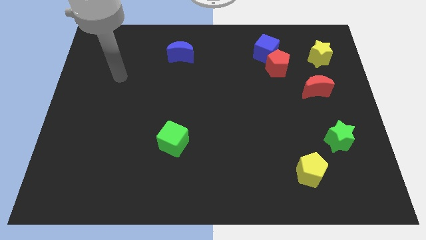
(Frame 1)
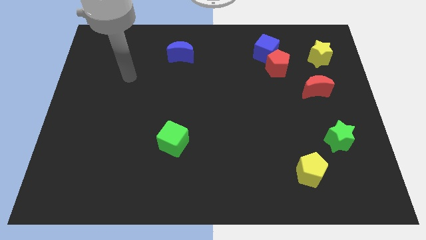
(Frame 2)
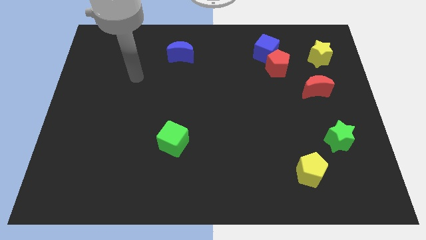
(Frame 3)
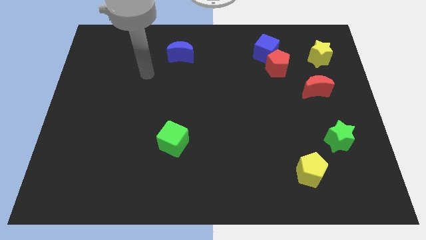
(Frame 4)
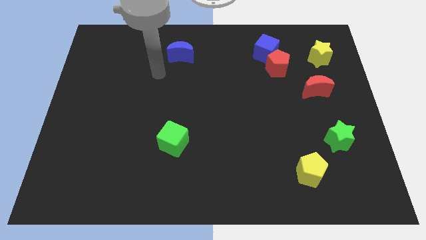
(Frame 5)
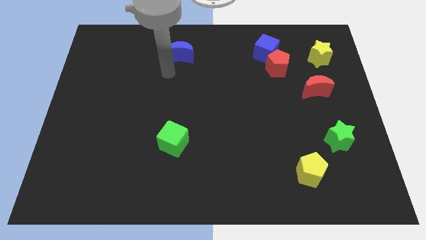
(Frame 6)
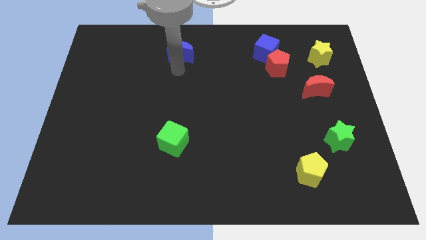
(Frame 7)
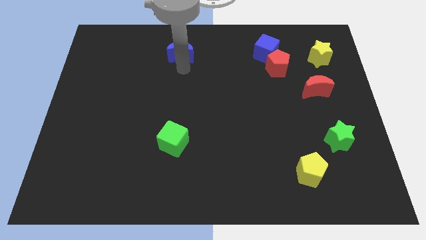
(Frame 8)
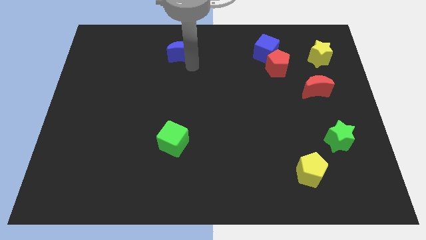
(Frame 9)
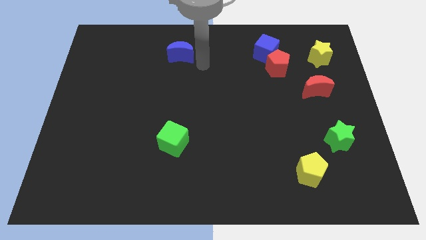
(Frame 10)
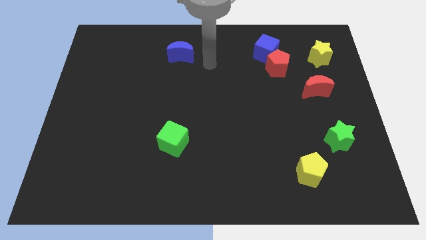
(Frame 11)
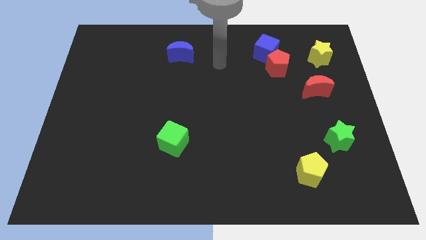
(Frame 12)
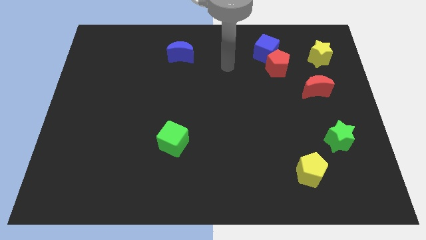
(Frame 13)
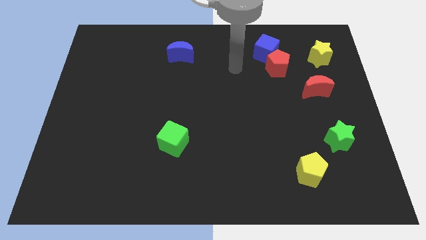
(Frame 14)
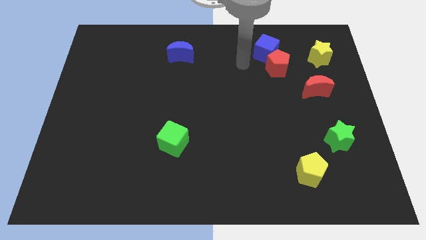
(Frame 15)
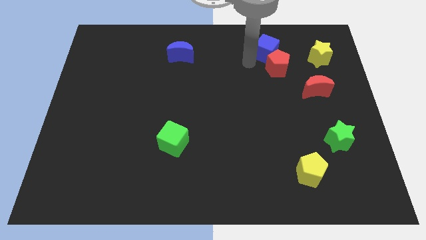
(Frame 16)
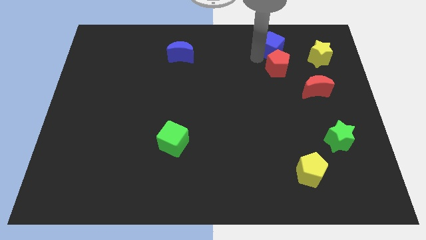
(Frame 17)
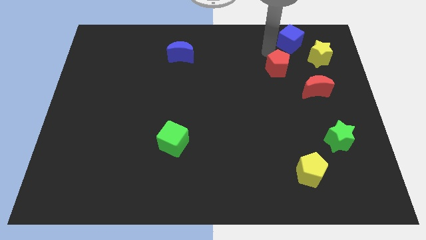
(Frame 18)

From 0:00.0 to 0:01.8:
separate the red pentagon from the blue cube

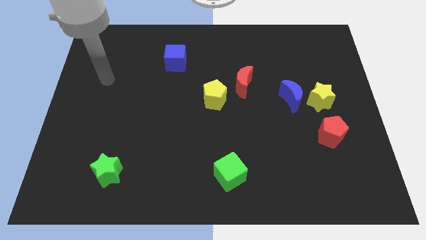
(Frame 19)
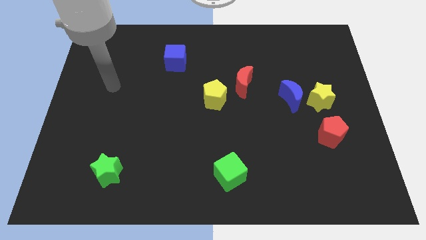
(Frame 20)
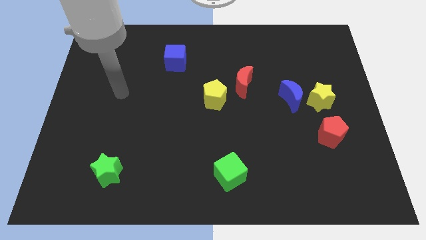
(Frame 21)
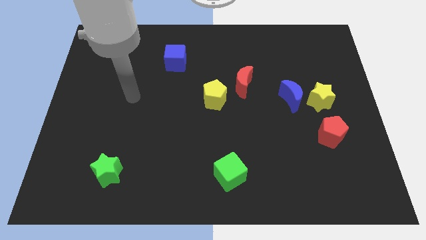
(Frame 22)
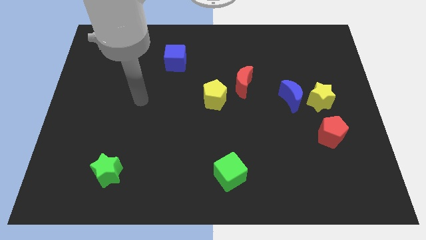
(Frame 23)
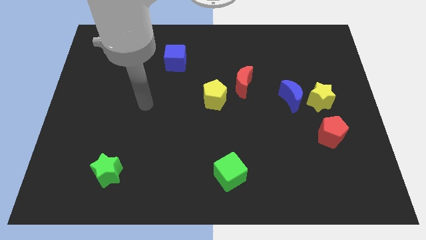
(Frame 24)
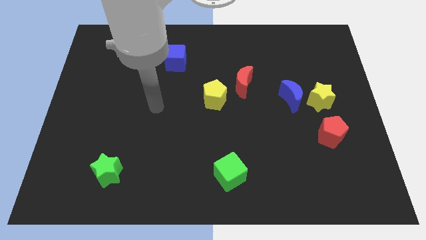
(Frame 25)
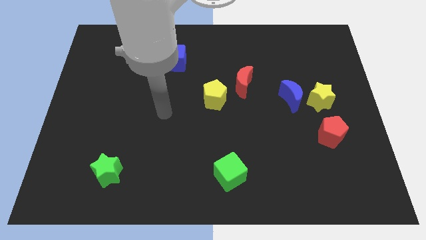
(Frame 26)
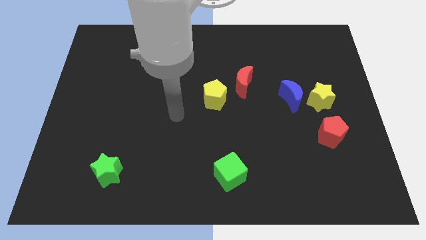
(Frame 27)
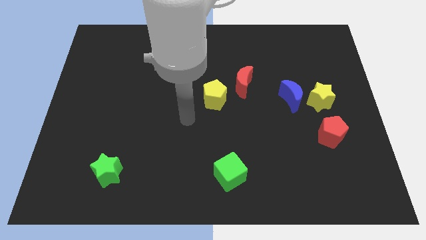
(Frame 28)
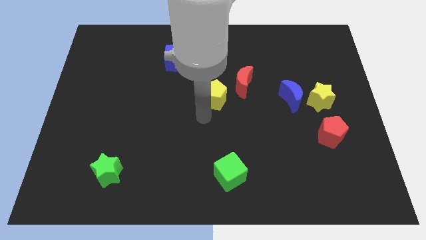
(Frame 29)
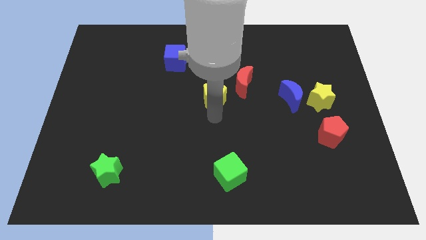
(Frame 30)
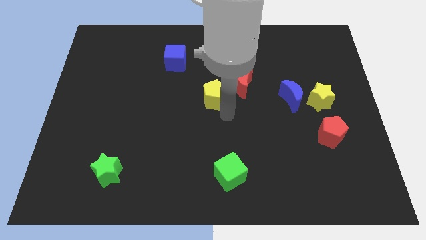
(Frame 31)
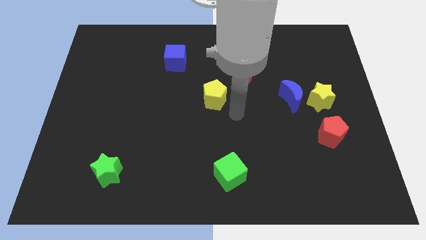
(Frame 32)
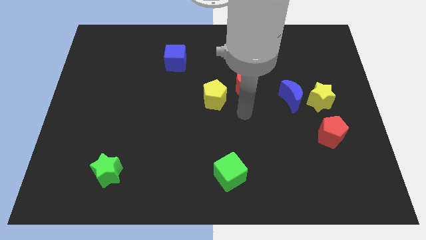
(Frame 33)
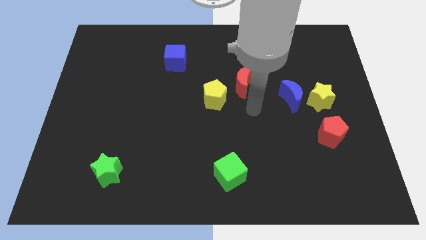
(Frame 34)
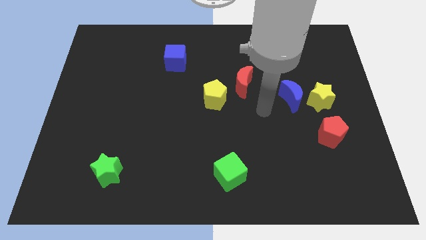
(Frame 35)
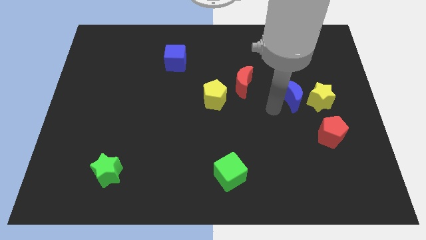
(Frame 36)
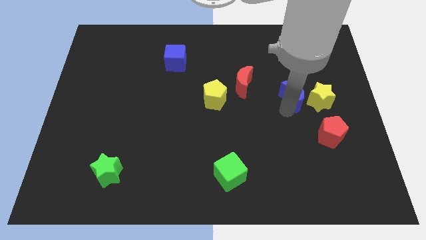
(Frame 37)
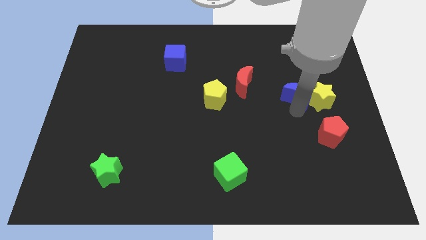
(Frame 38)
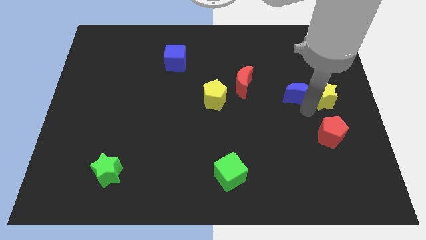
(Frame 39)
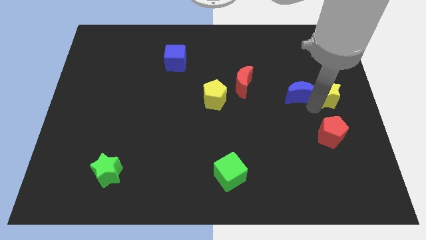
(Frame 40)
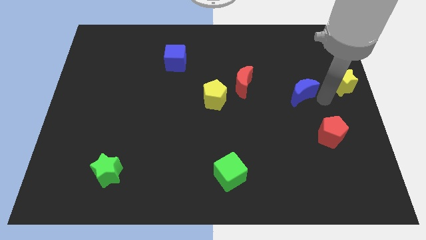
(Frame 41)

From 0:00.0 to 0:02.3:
separate the blue moon from the yellow star

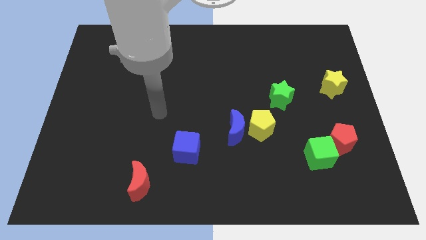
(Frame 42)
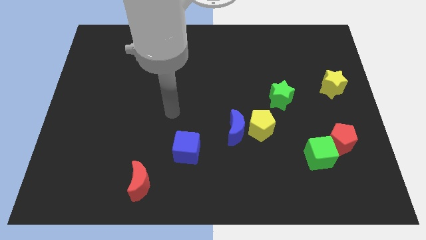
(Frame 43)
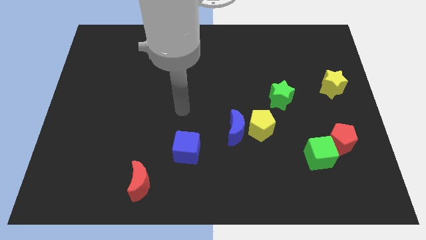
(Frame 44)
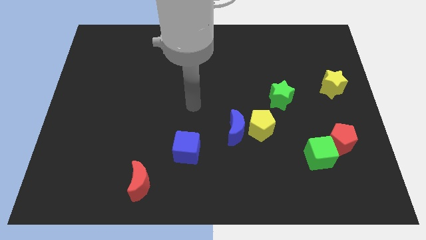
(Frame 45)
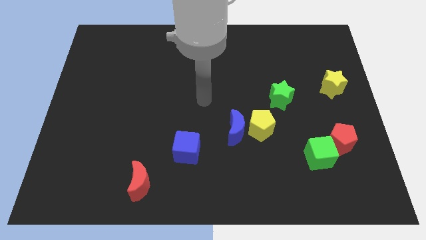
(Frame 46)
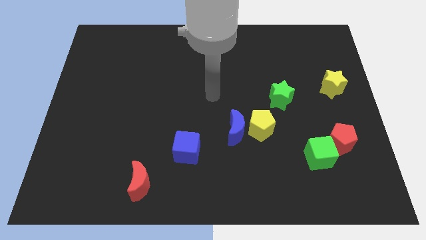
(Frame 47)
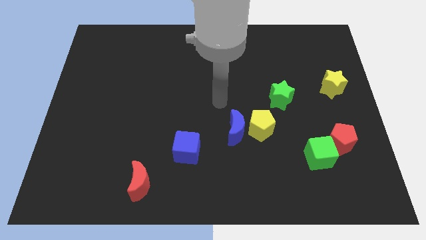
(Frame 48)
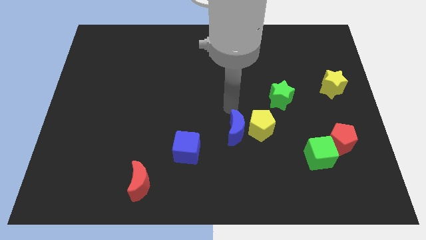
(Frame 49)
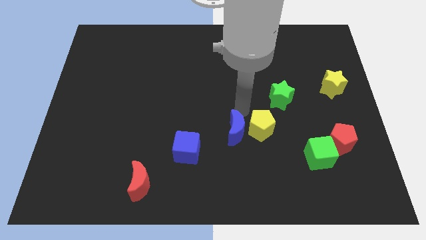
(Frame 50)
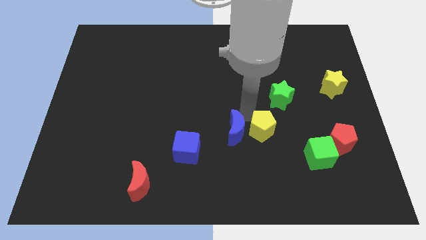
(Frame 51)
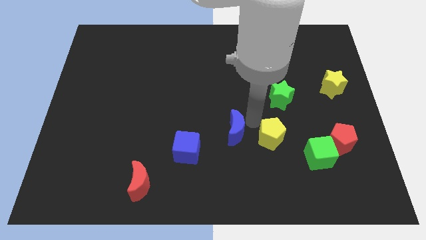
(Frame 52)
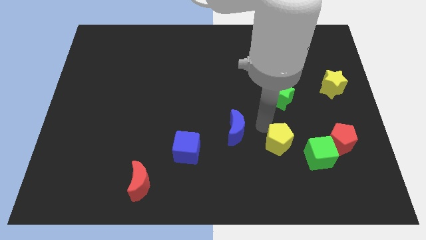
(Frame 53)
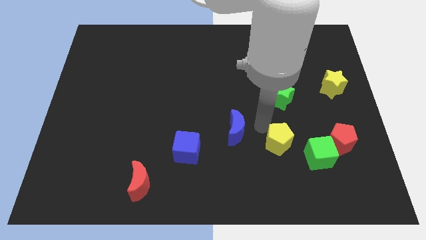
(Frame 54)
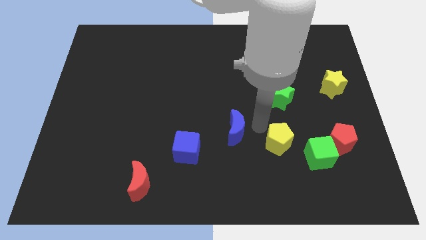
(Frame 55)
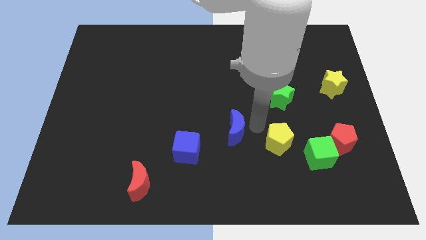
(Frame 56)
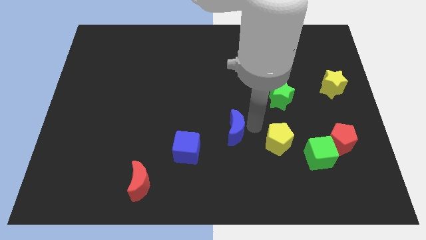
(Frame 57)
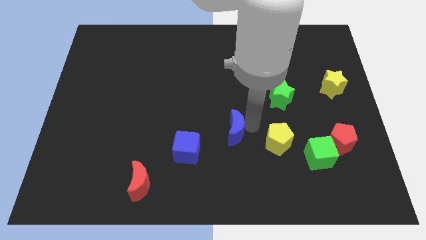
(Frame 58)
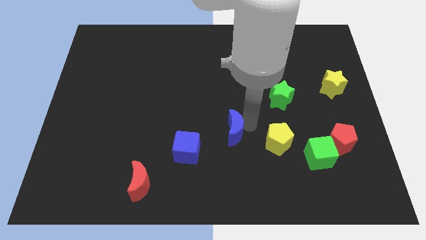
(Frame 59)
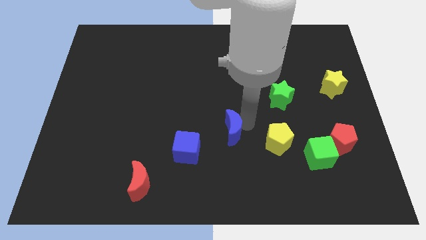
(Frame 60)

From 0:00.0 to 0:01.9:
pull the blue moon apart from the yellow pentagon

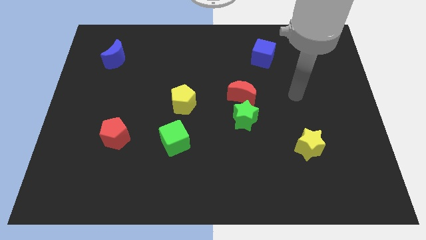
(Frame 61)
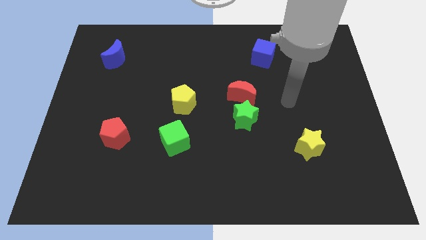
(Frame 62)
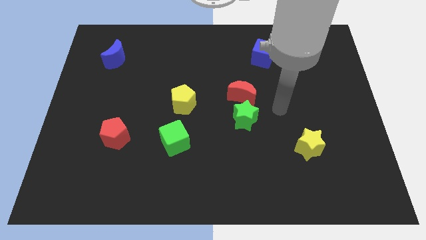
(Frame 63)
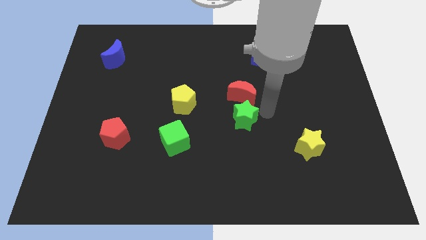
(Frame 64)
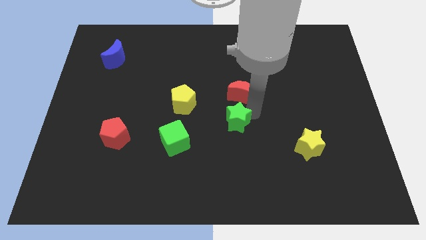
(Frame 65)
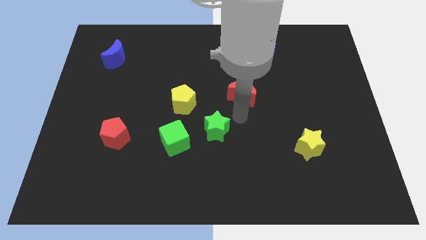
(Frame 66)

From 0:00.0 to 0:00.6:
pull the red moon apart from the green star

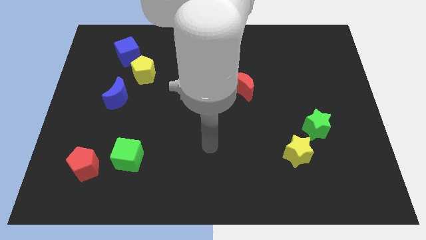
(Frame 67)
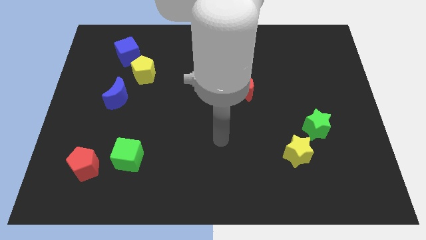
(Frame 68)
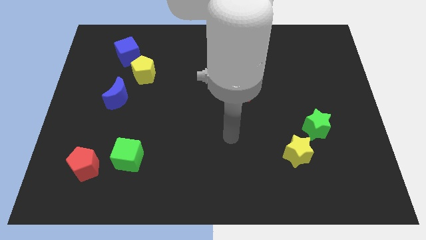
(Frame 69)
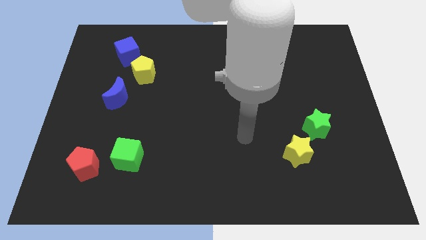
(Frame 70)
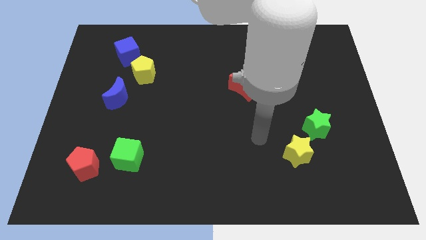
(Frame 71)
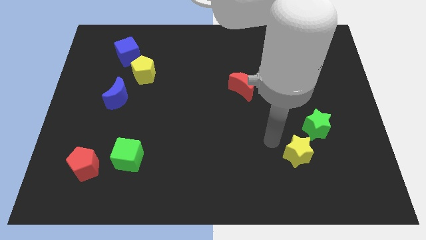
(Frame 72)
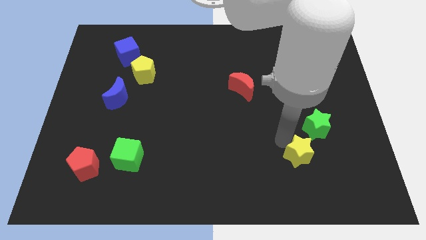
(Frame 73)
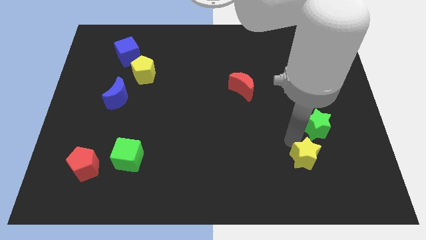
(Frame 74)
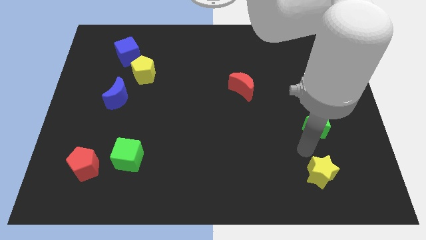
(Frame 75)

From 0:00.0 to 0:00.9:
move the green star away from the yellow star

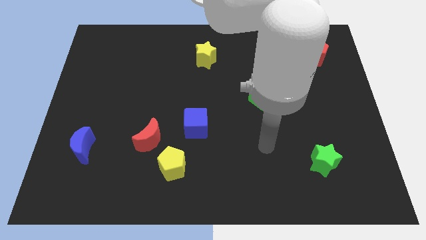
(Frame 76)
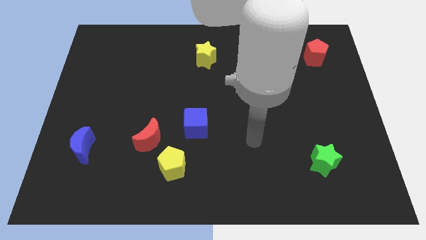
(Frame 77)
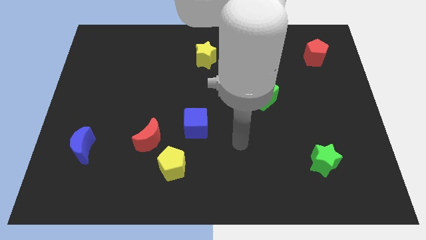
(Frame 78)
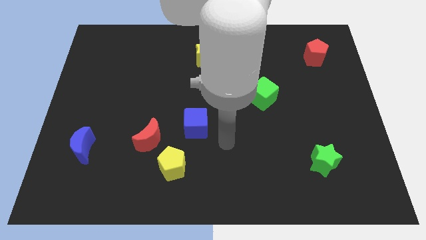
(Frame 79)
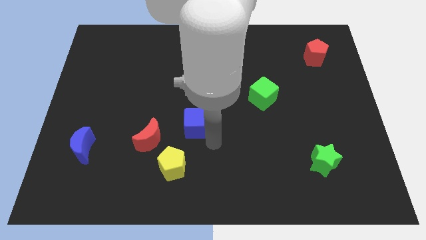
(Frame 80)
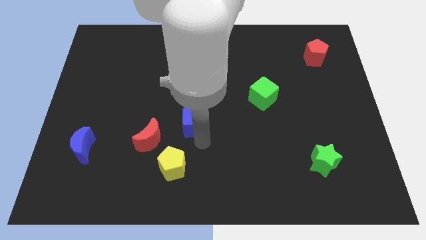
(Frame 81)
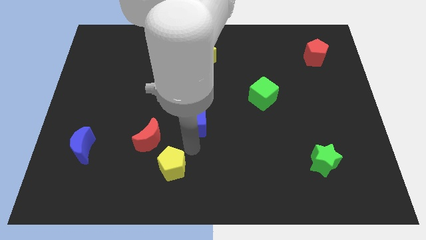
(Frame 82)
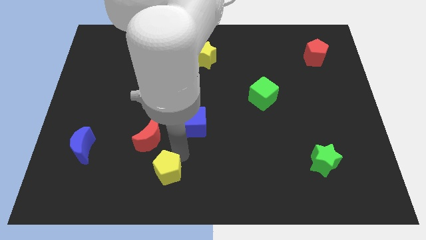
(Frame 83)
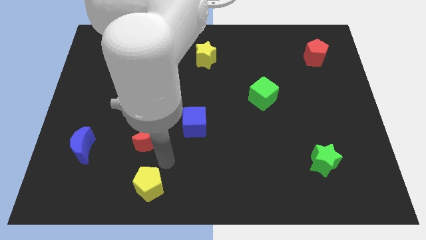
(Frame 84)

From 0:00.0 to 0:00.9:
pull the red moon apart from the yellow pentagon

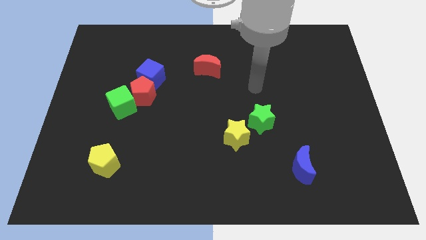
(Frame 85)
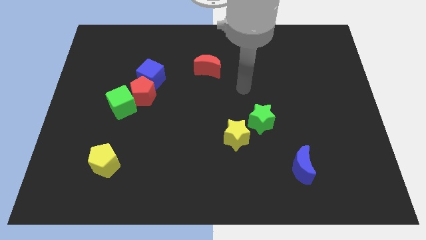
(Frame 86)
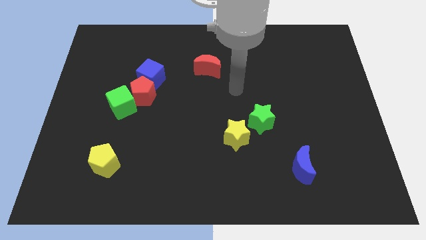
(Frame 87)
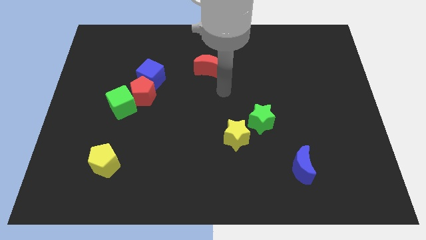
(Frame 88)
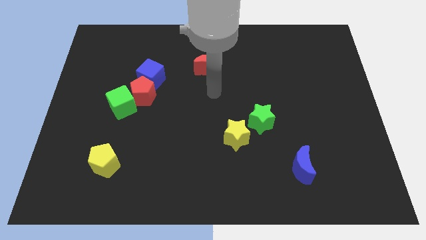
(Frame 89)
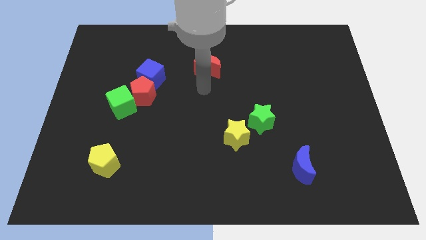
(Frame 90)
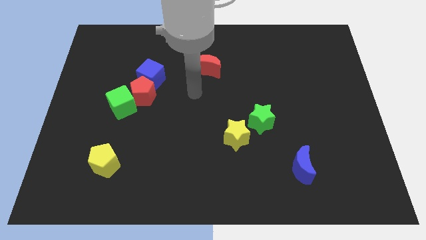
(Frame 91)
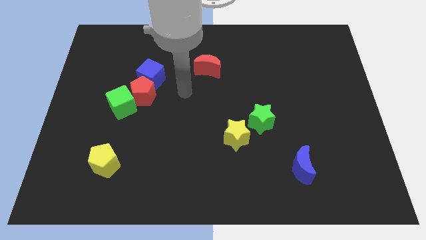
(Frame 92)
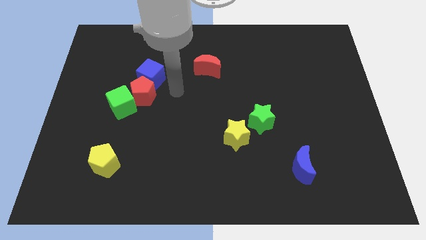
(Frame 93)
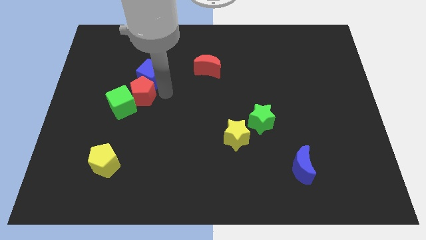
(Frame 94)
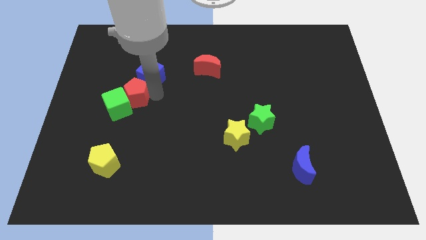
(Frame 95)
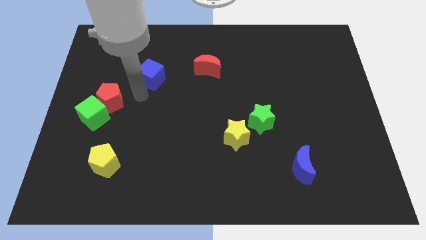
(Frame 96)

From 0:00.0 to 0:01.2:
pull the blue cube apart from the red pentagon
